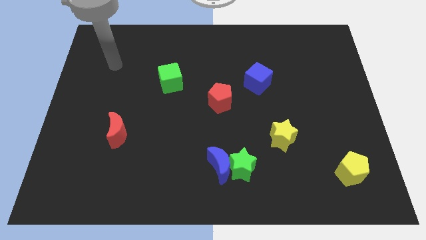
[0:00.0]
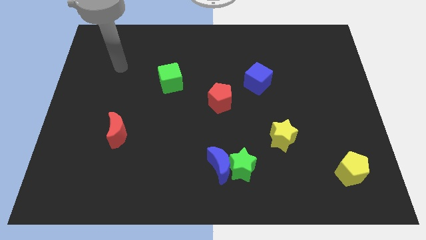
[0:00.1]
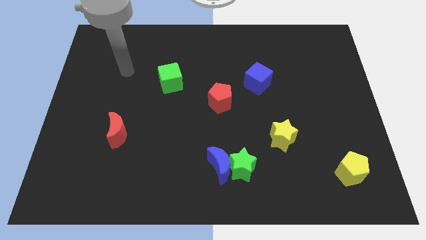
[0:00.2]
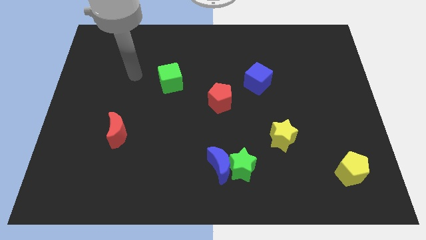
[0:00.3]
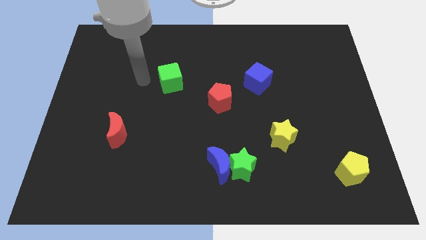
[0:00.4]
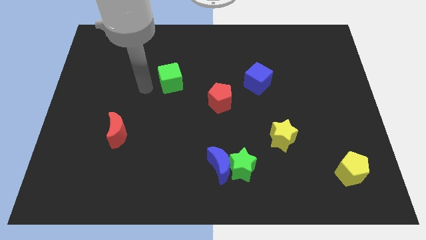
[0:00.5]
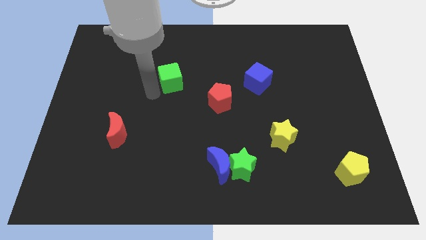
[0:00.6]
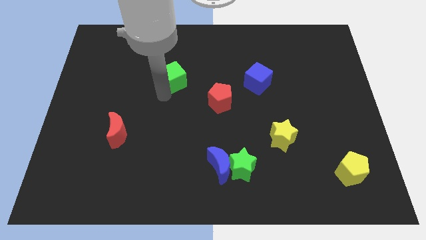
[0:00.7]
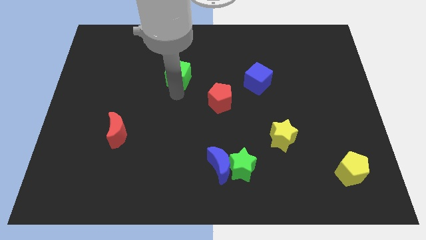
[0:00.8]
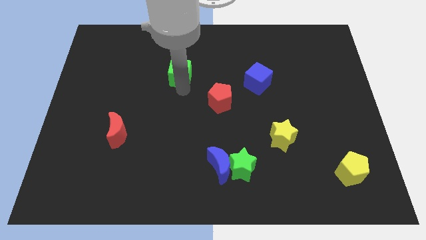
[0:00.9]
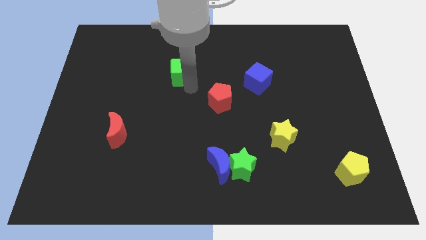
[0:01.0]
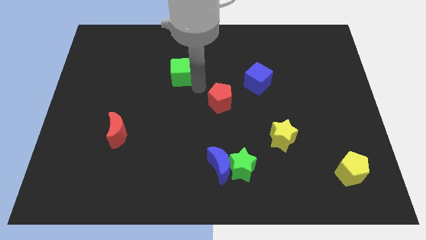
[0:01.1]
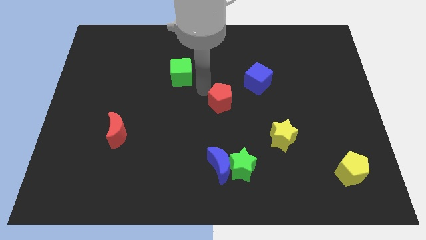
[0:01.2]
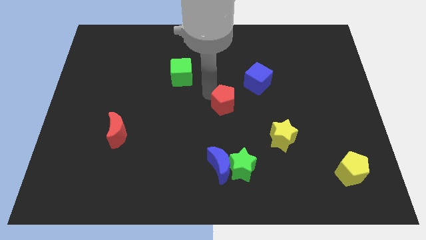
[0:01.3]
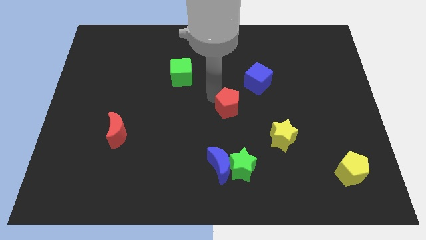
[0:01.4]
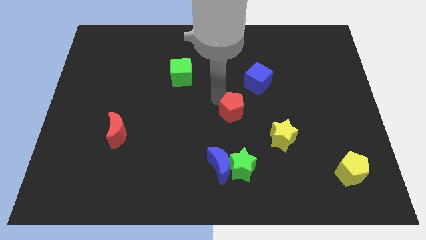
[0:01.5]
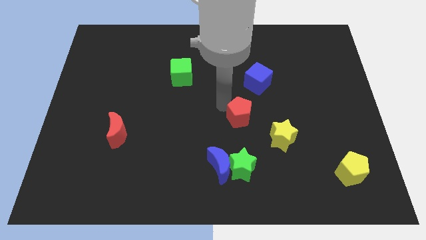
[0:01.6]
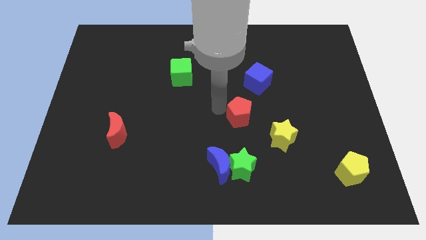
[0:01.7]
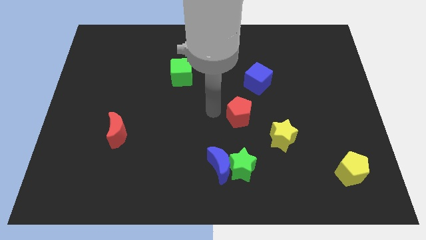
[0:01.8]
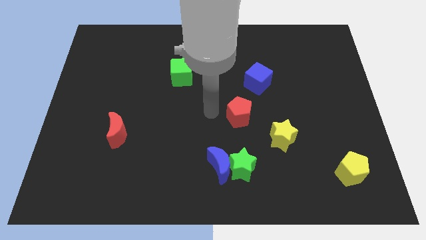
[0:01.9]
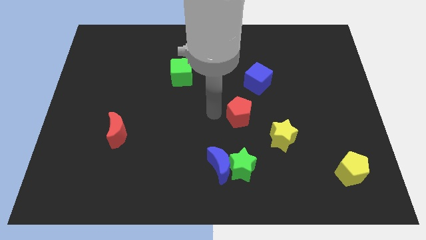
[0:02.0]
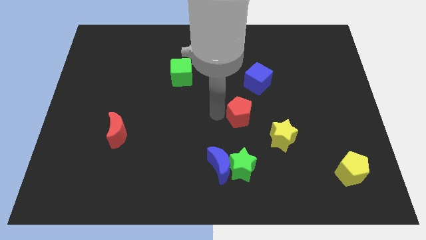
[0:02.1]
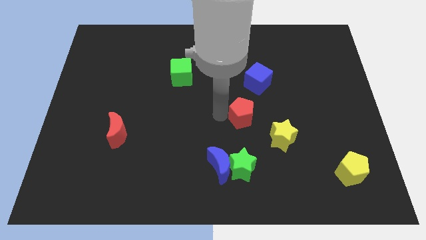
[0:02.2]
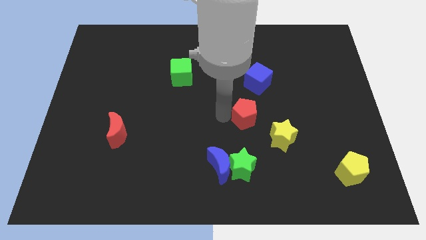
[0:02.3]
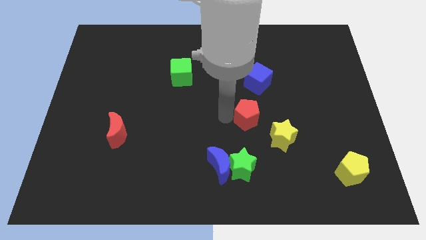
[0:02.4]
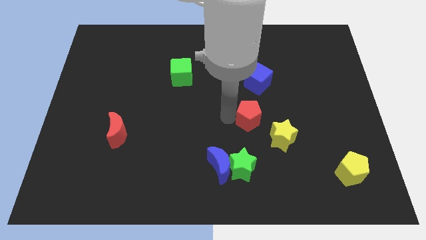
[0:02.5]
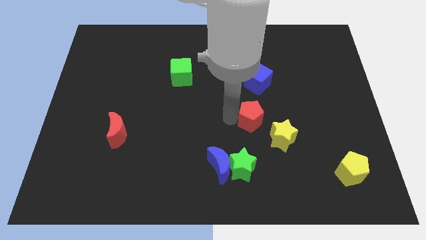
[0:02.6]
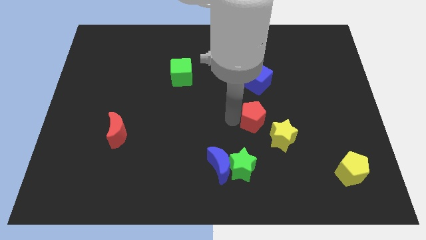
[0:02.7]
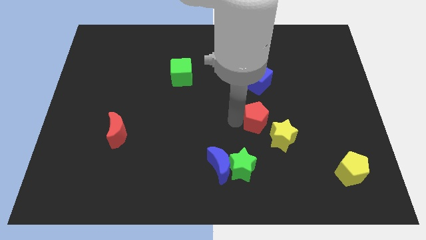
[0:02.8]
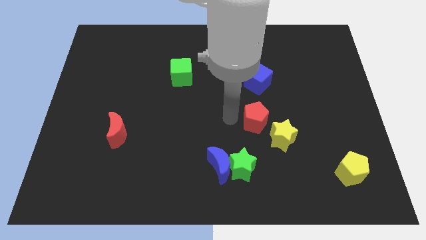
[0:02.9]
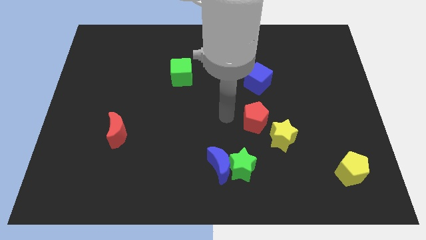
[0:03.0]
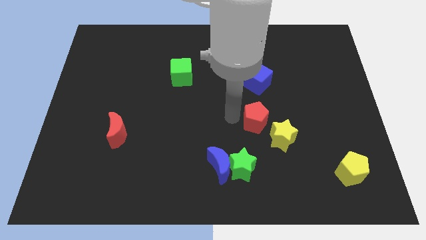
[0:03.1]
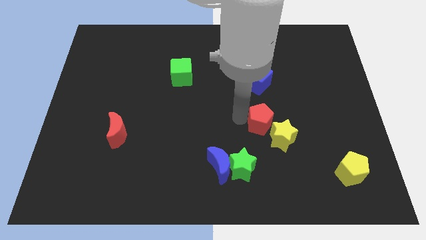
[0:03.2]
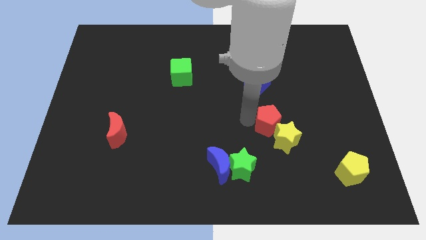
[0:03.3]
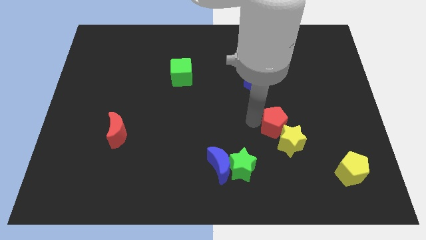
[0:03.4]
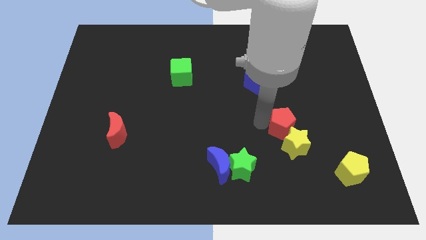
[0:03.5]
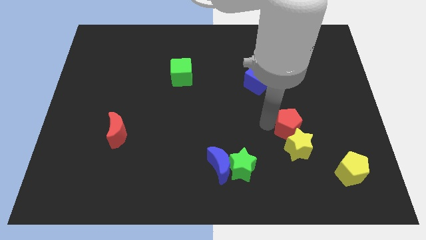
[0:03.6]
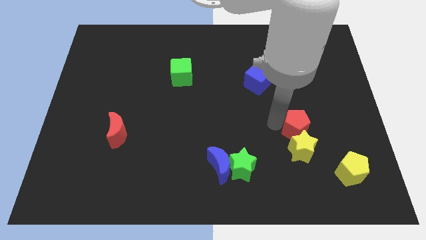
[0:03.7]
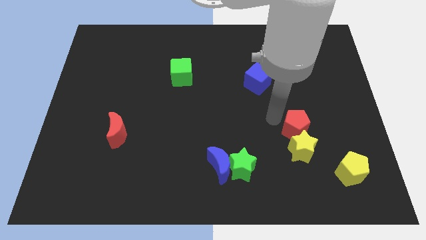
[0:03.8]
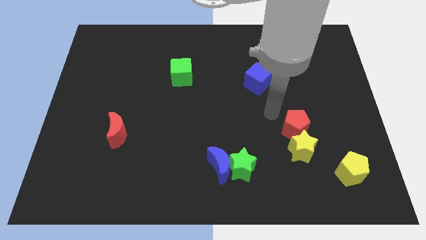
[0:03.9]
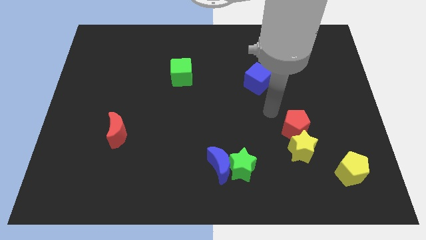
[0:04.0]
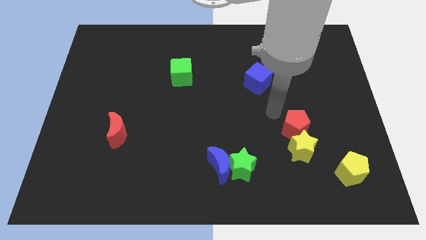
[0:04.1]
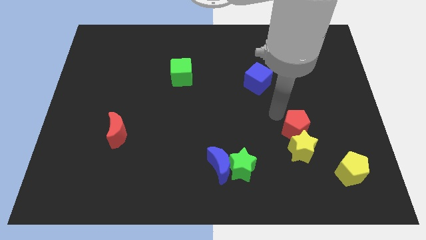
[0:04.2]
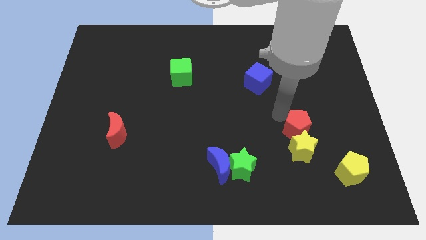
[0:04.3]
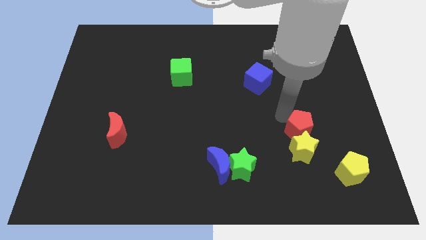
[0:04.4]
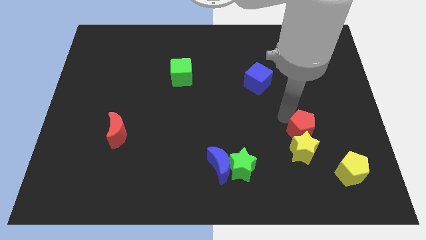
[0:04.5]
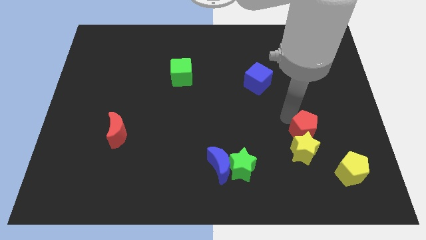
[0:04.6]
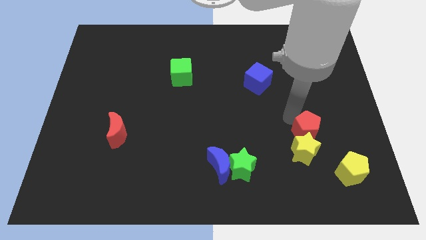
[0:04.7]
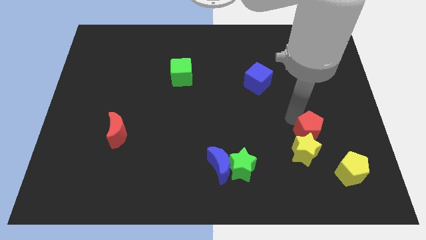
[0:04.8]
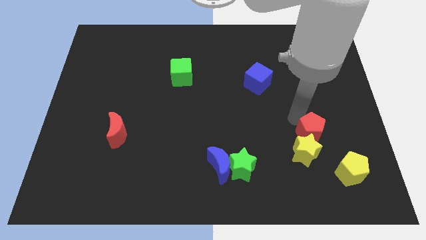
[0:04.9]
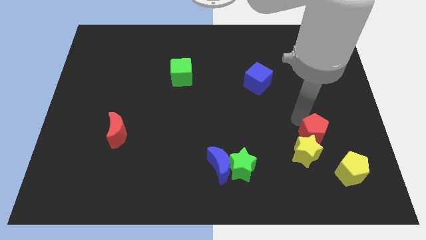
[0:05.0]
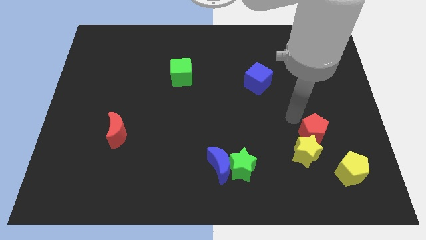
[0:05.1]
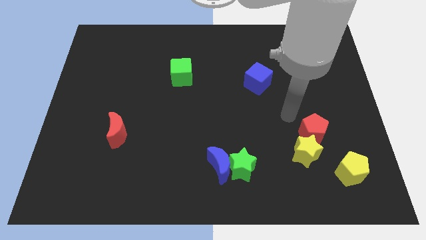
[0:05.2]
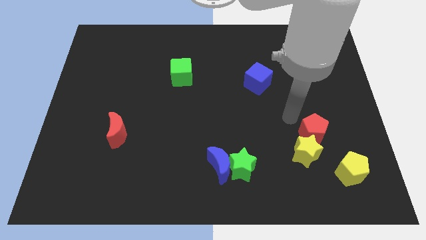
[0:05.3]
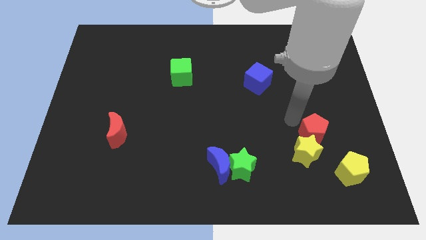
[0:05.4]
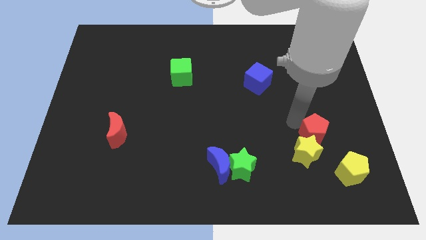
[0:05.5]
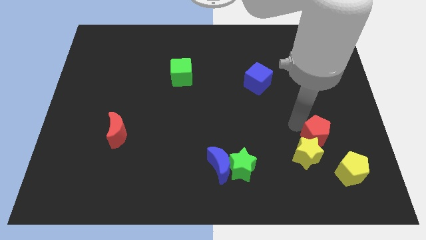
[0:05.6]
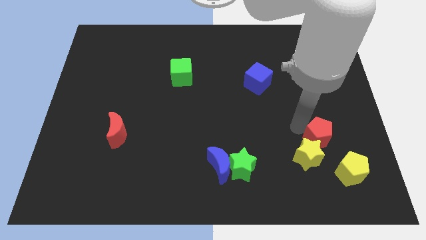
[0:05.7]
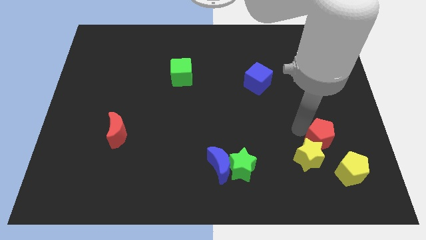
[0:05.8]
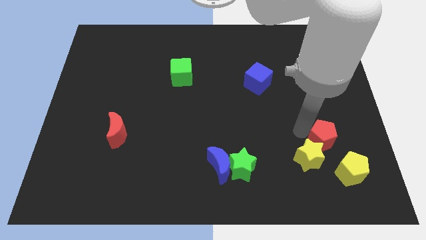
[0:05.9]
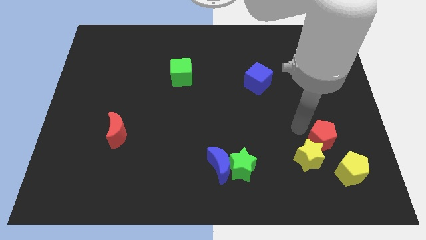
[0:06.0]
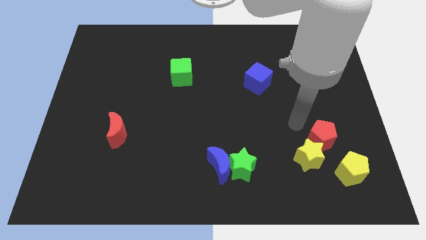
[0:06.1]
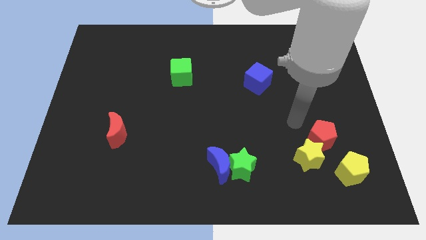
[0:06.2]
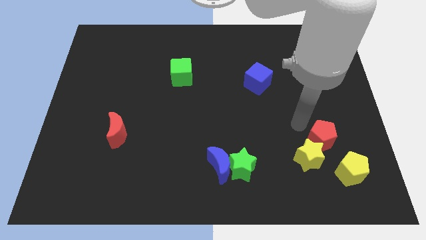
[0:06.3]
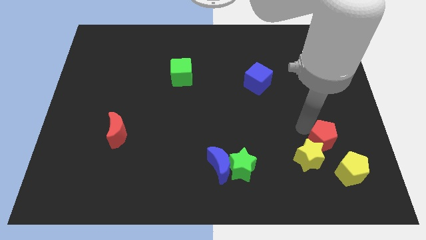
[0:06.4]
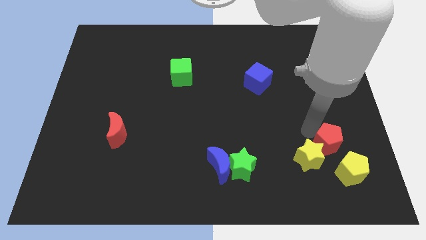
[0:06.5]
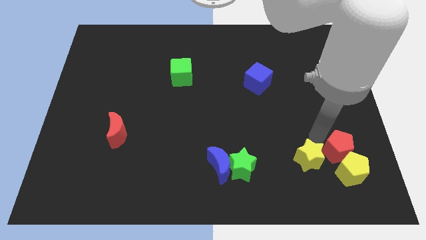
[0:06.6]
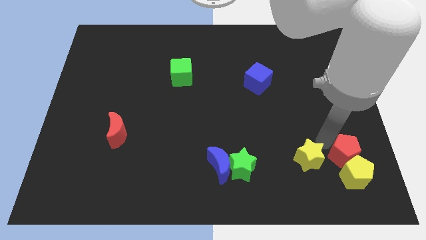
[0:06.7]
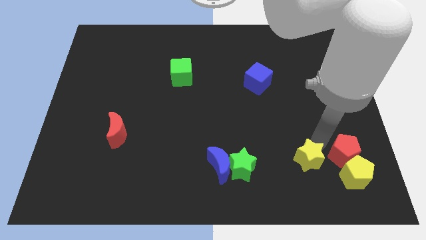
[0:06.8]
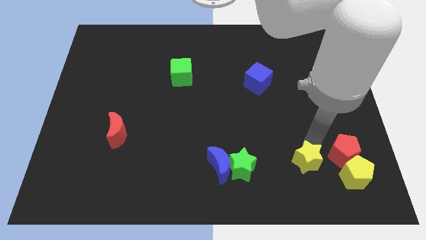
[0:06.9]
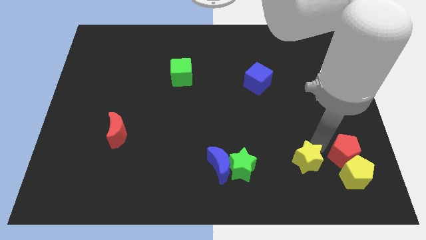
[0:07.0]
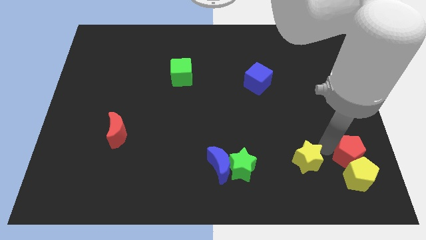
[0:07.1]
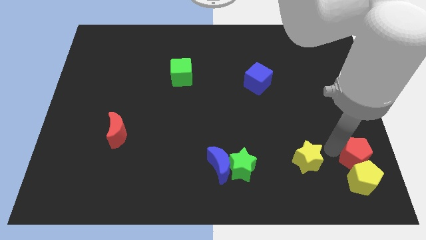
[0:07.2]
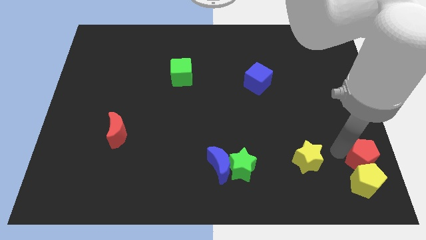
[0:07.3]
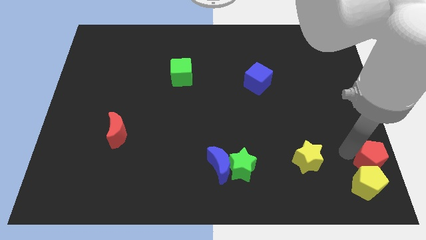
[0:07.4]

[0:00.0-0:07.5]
slide the red pentagon to the bottom right
